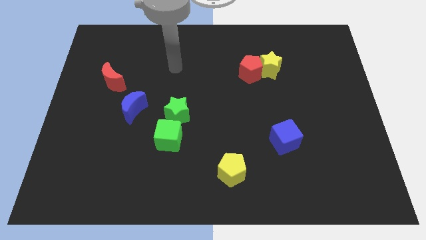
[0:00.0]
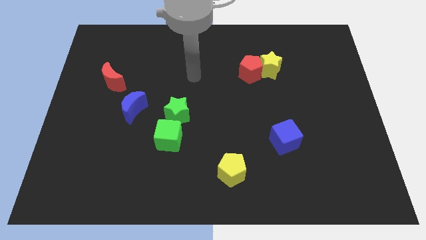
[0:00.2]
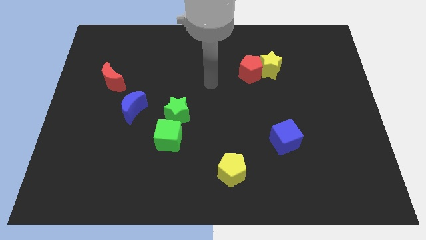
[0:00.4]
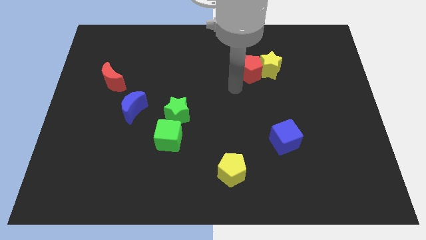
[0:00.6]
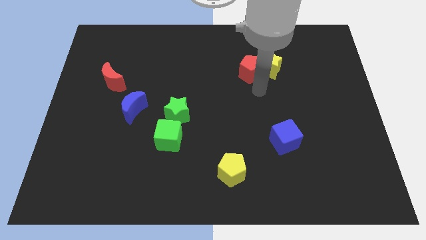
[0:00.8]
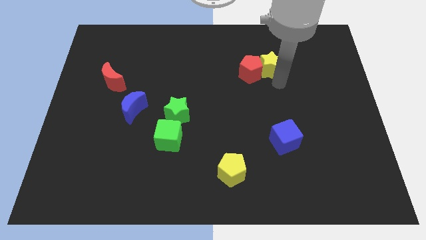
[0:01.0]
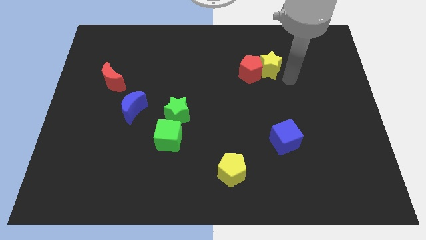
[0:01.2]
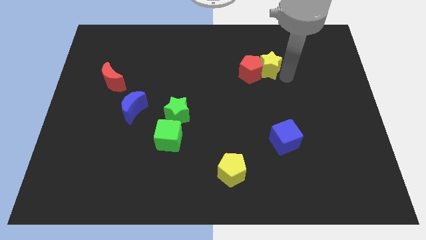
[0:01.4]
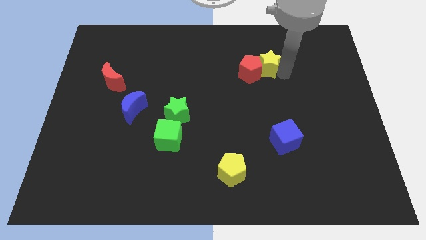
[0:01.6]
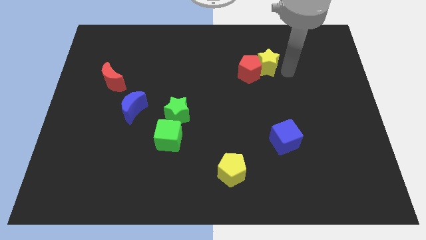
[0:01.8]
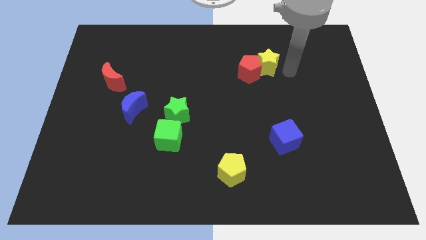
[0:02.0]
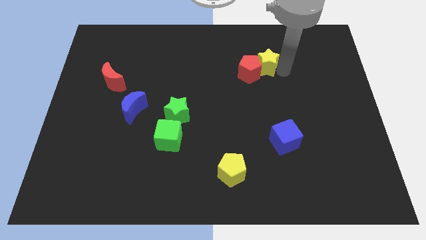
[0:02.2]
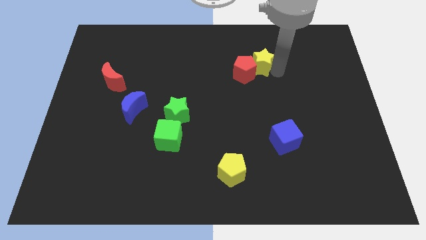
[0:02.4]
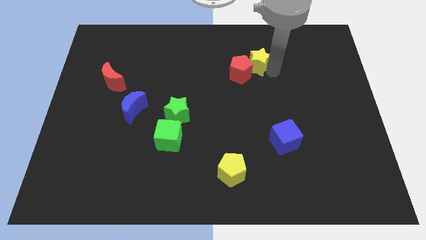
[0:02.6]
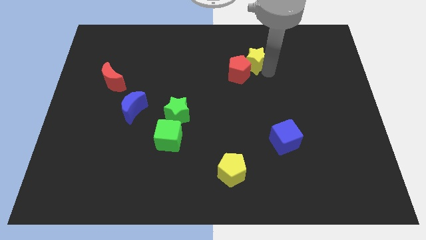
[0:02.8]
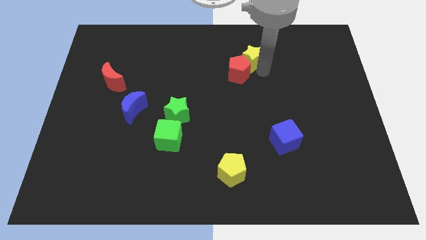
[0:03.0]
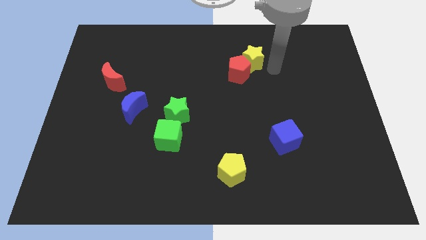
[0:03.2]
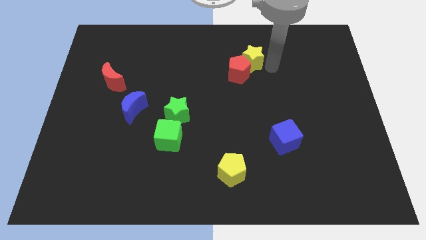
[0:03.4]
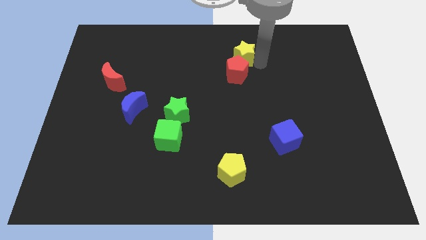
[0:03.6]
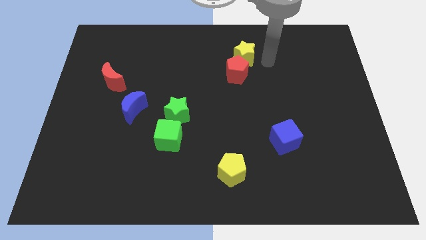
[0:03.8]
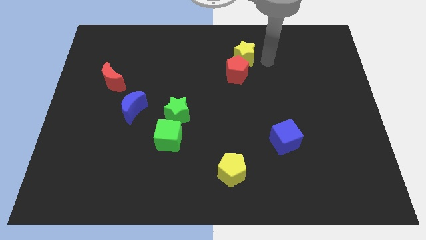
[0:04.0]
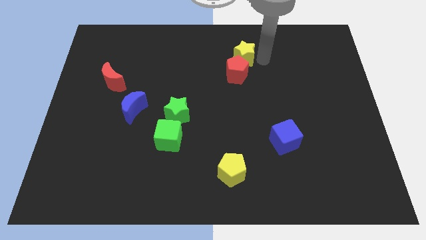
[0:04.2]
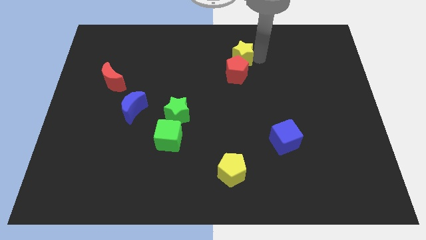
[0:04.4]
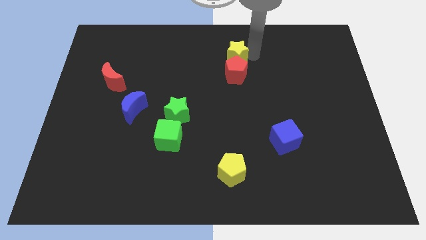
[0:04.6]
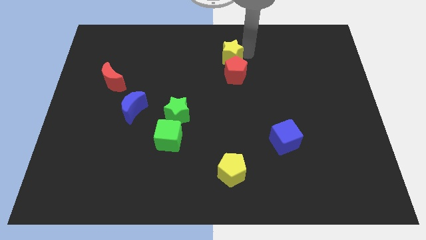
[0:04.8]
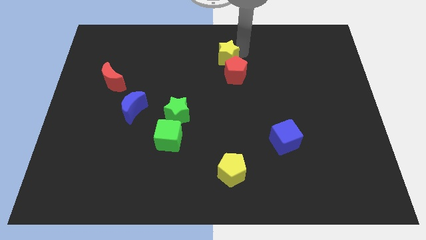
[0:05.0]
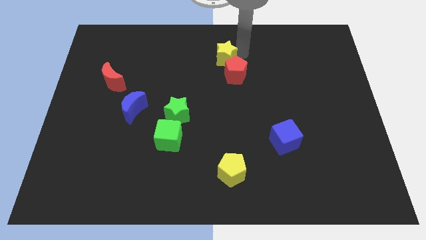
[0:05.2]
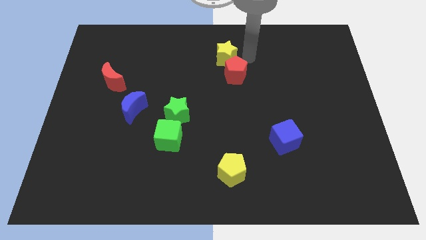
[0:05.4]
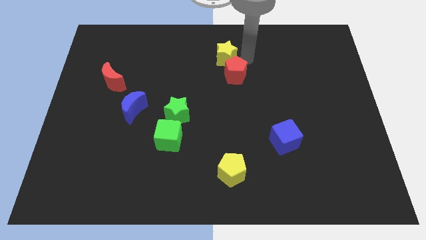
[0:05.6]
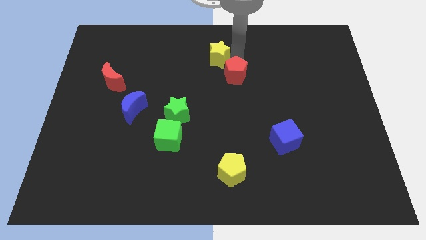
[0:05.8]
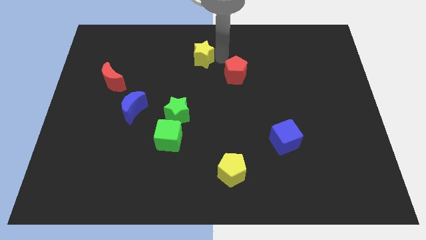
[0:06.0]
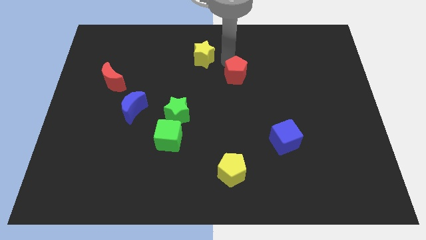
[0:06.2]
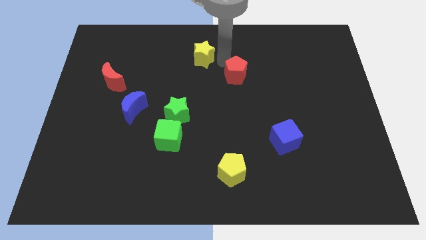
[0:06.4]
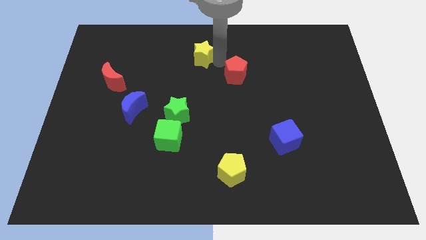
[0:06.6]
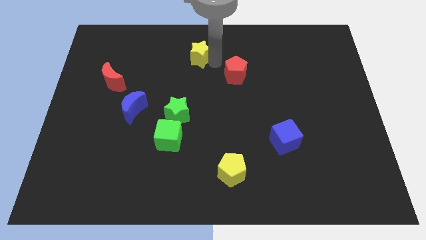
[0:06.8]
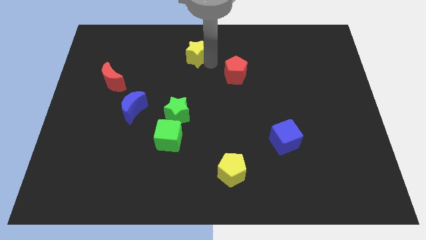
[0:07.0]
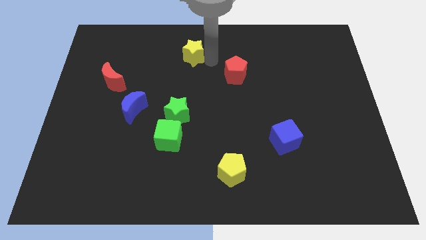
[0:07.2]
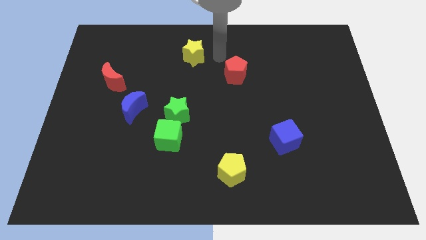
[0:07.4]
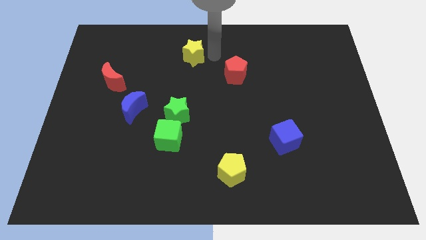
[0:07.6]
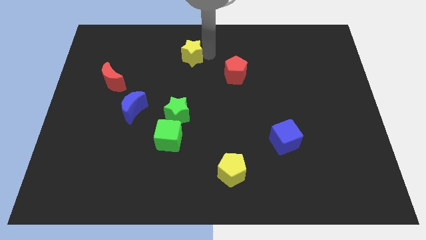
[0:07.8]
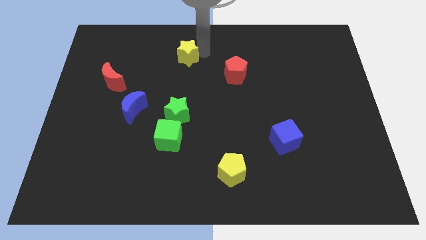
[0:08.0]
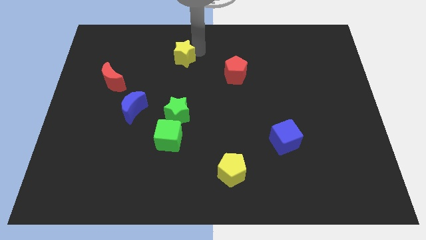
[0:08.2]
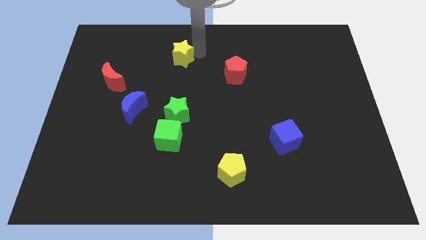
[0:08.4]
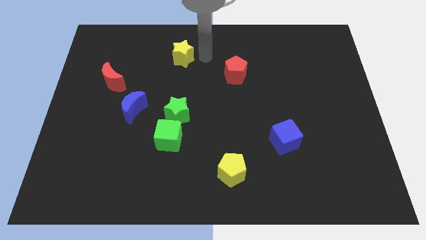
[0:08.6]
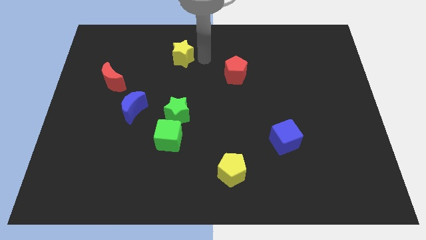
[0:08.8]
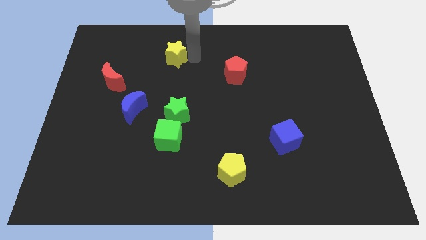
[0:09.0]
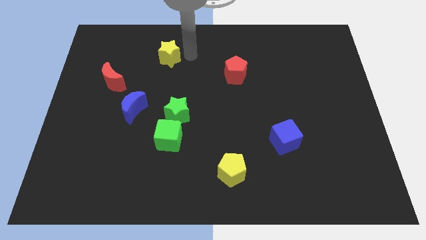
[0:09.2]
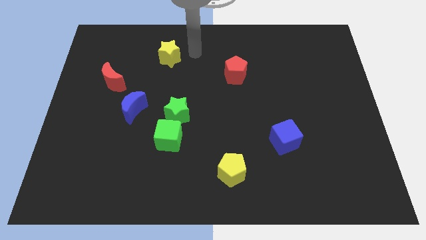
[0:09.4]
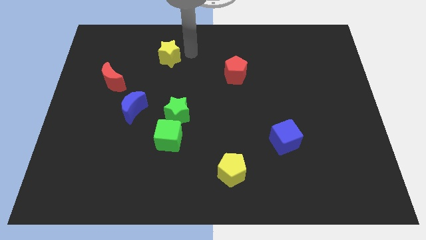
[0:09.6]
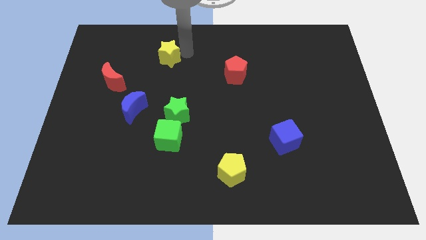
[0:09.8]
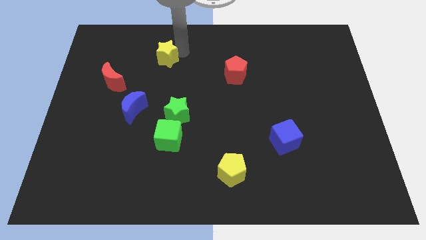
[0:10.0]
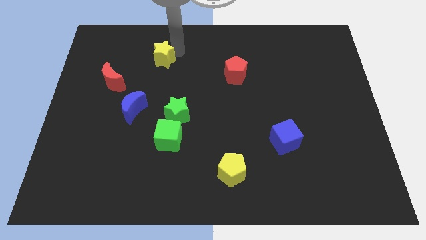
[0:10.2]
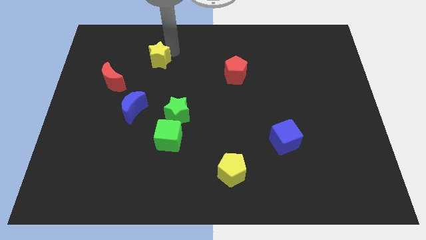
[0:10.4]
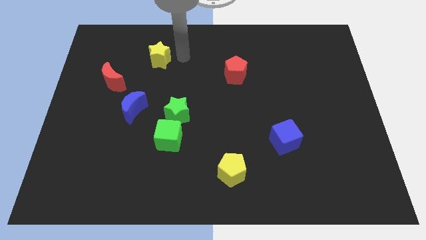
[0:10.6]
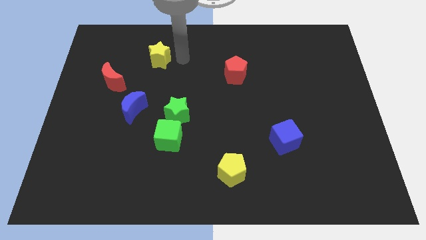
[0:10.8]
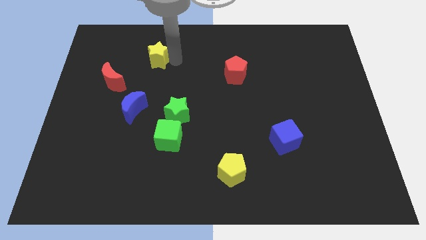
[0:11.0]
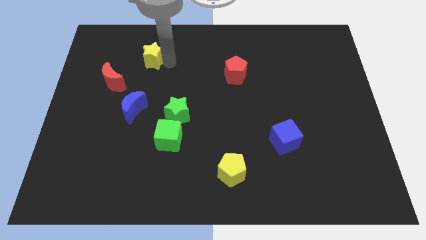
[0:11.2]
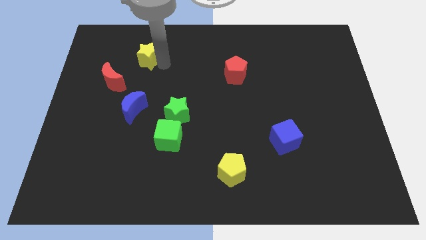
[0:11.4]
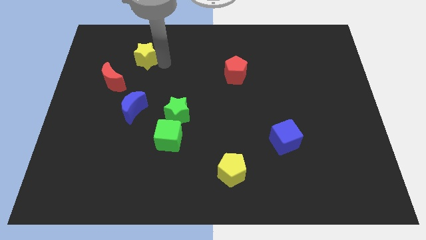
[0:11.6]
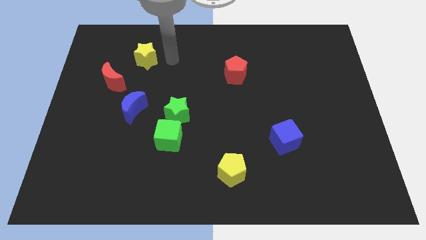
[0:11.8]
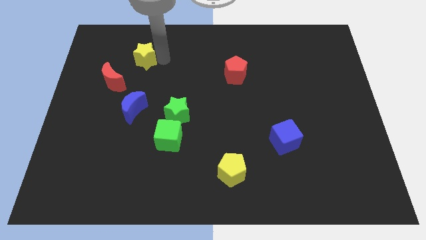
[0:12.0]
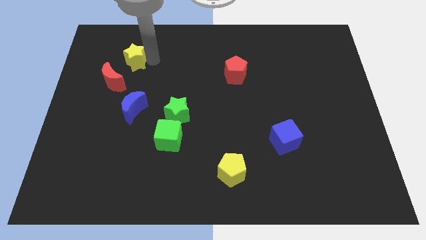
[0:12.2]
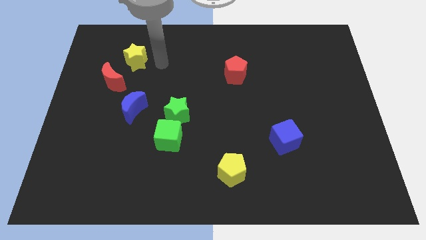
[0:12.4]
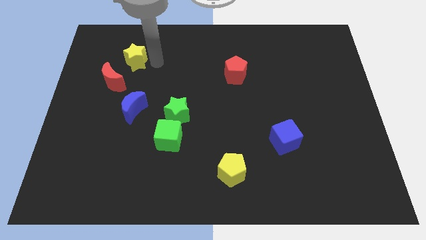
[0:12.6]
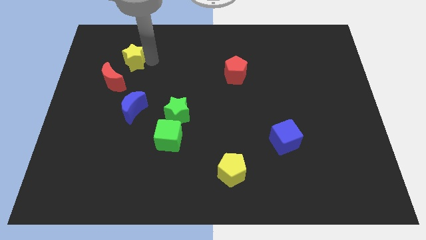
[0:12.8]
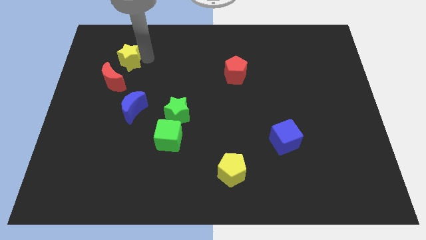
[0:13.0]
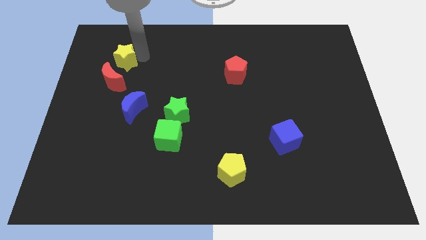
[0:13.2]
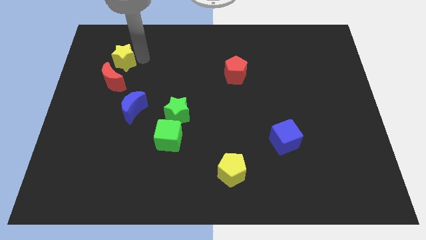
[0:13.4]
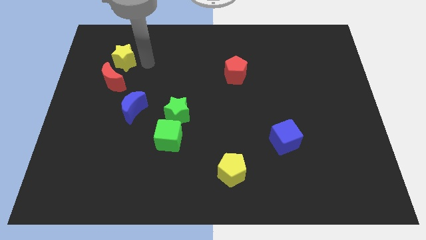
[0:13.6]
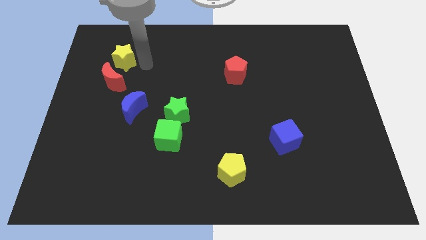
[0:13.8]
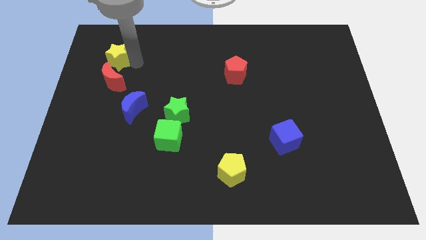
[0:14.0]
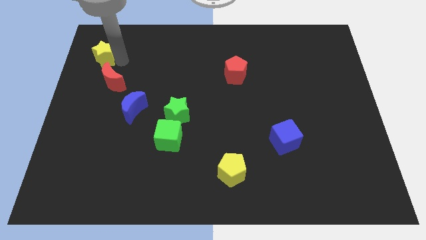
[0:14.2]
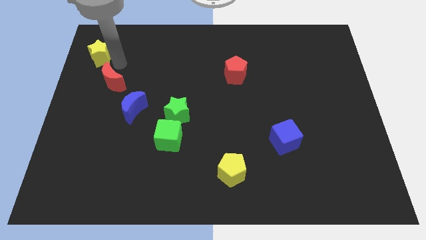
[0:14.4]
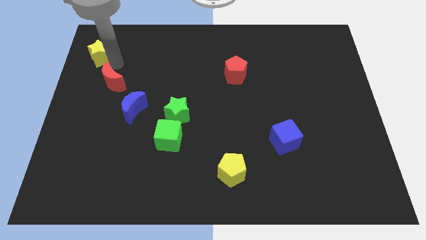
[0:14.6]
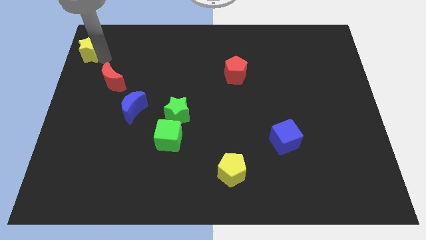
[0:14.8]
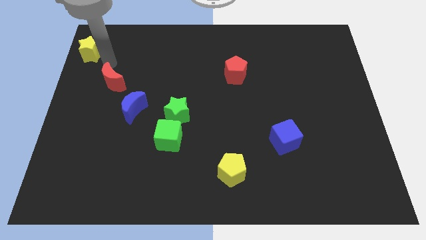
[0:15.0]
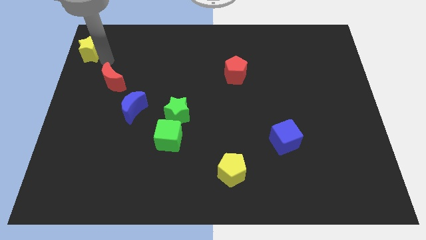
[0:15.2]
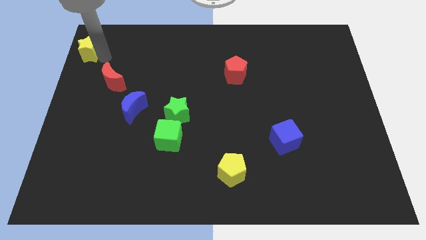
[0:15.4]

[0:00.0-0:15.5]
slide the yellow star to the upper left corner
